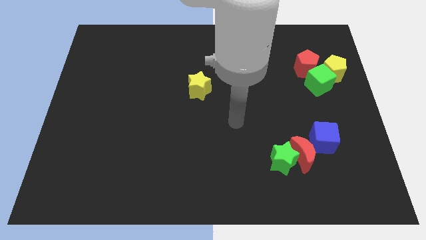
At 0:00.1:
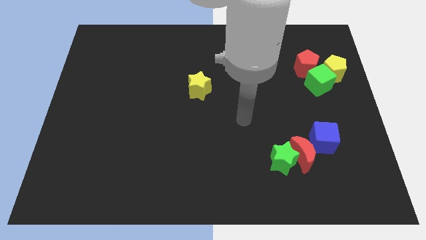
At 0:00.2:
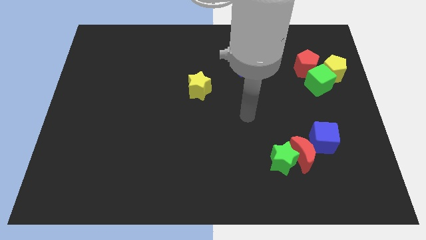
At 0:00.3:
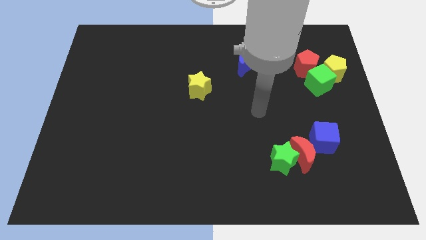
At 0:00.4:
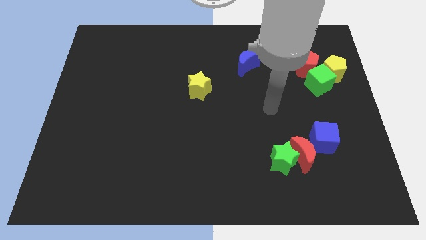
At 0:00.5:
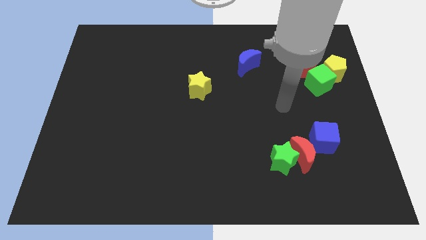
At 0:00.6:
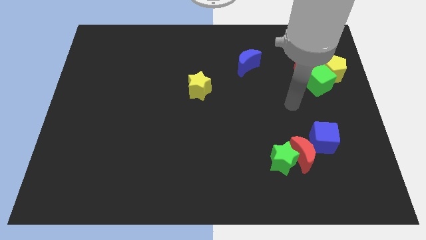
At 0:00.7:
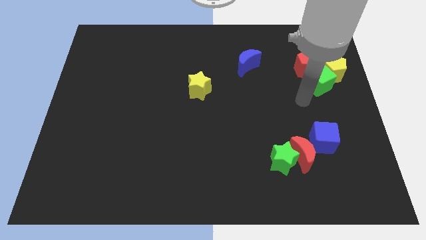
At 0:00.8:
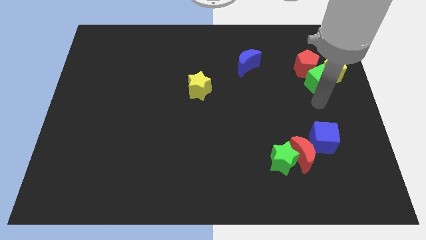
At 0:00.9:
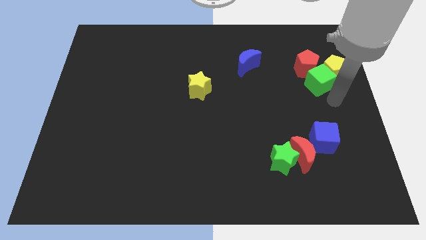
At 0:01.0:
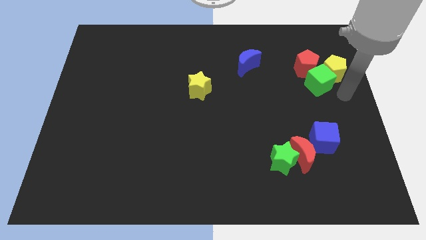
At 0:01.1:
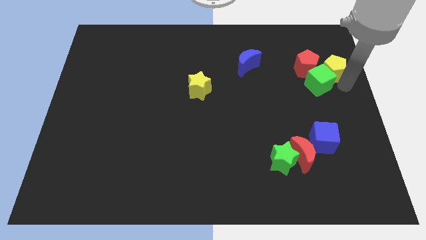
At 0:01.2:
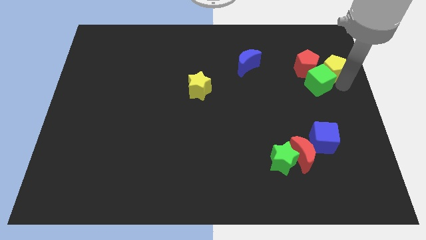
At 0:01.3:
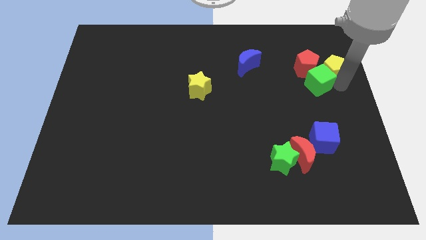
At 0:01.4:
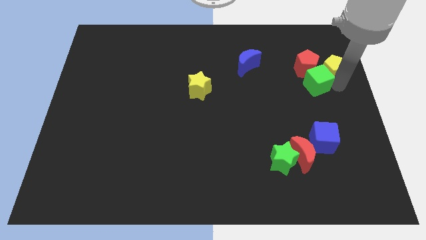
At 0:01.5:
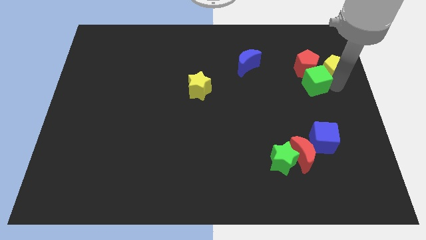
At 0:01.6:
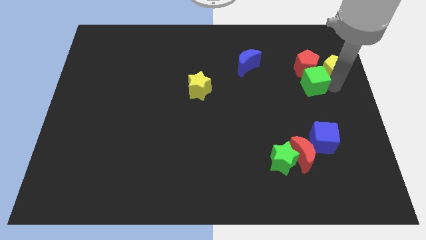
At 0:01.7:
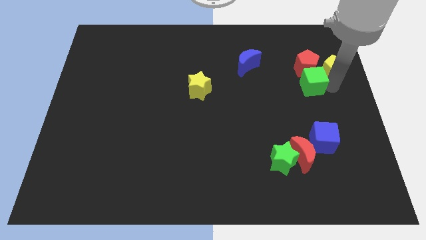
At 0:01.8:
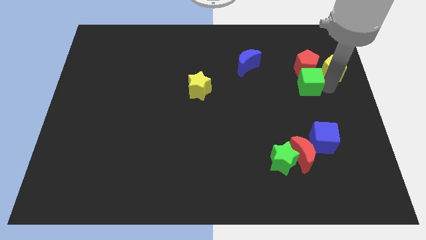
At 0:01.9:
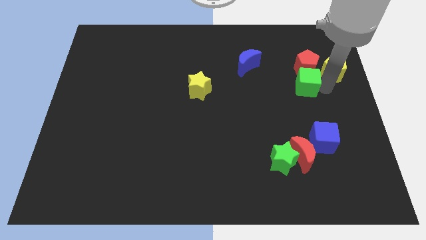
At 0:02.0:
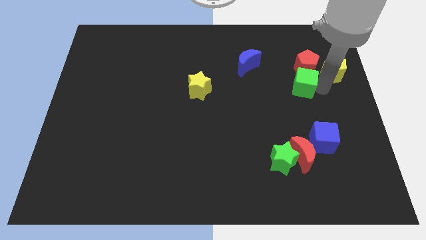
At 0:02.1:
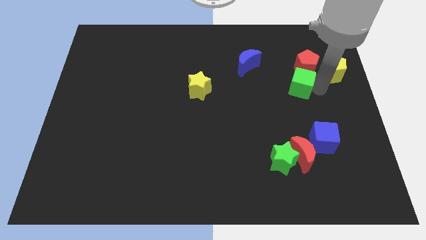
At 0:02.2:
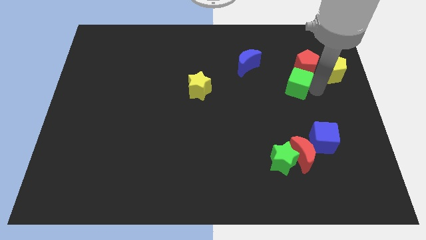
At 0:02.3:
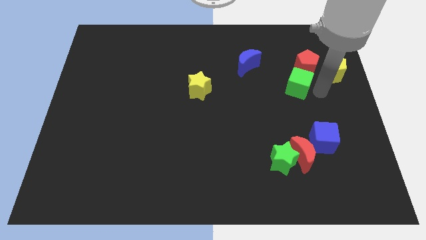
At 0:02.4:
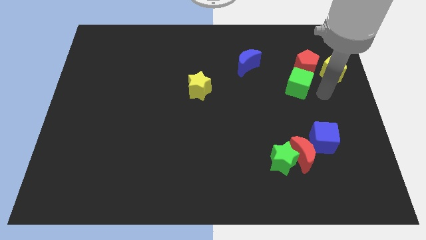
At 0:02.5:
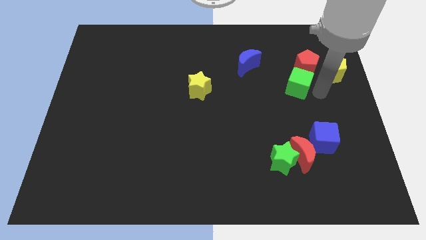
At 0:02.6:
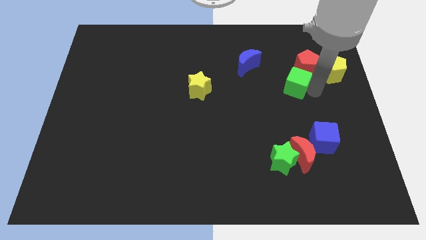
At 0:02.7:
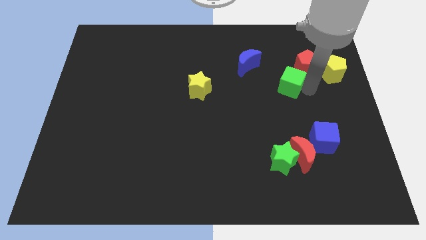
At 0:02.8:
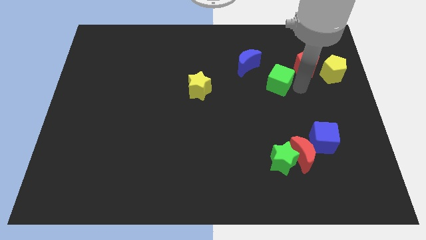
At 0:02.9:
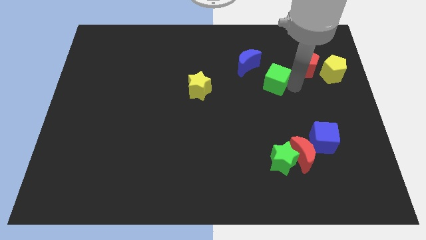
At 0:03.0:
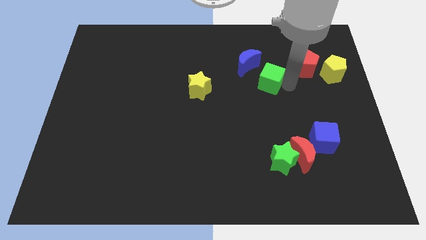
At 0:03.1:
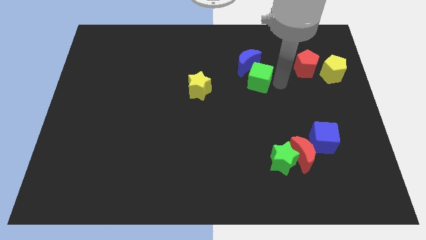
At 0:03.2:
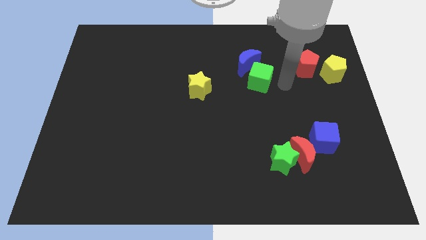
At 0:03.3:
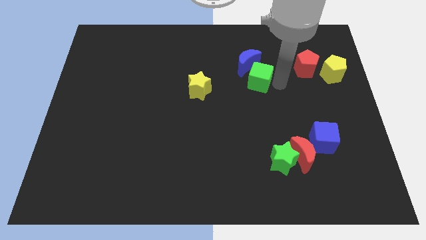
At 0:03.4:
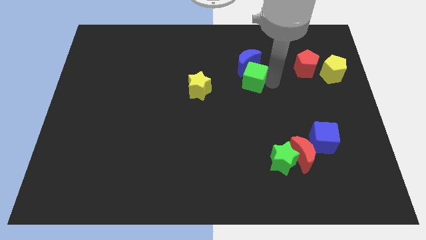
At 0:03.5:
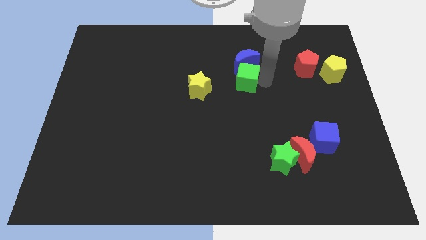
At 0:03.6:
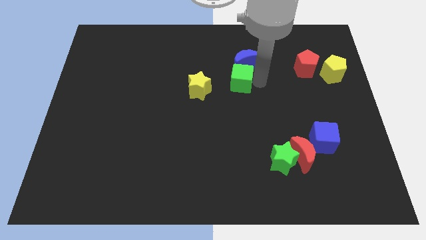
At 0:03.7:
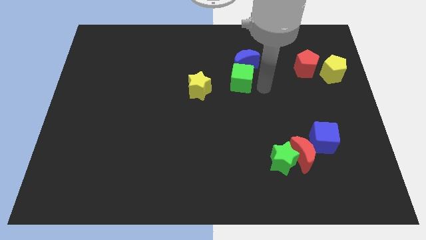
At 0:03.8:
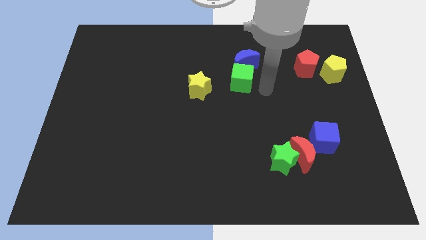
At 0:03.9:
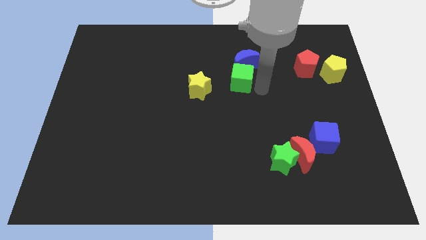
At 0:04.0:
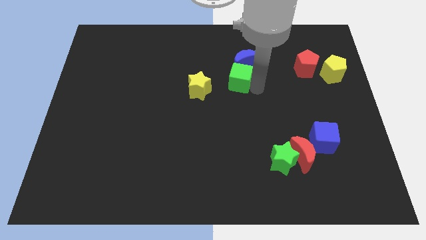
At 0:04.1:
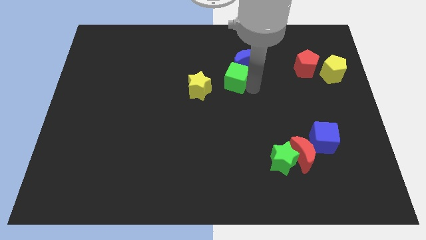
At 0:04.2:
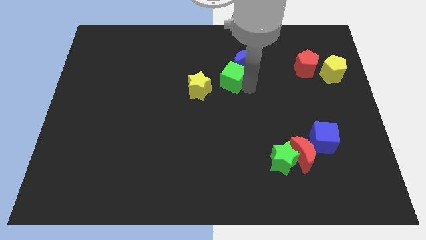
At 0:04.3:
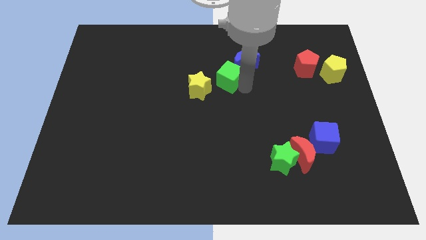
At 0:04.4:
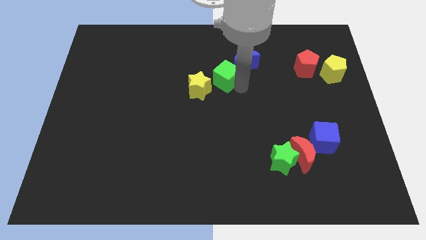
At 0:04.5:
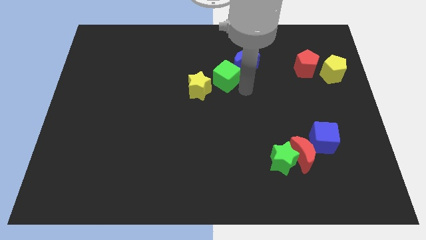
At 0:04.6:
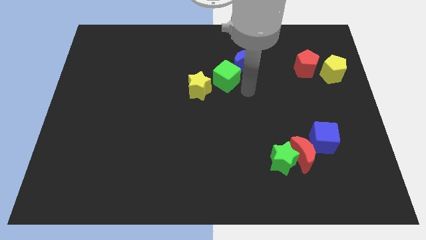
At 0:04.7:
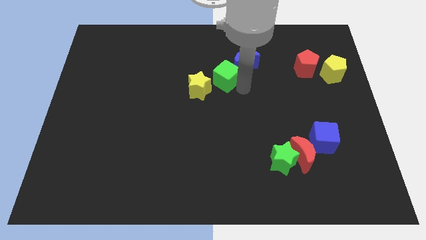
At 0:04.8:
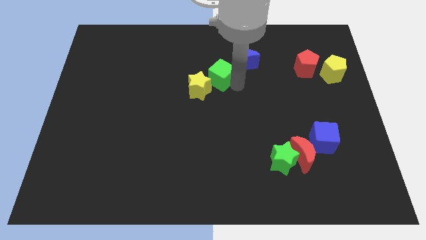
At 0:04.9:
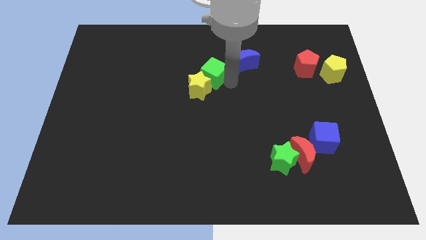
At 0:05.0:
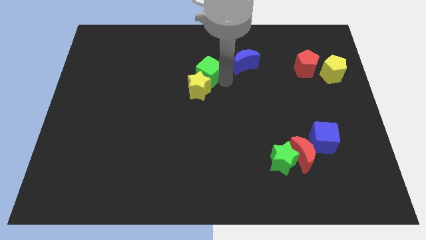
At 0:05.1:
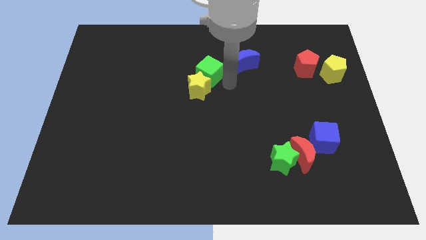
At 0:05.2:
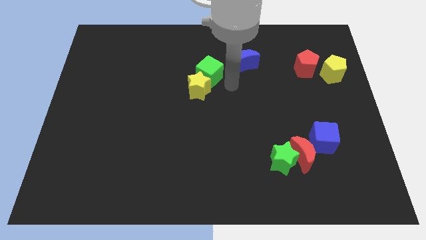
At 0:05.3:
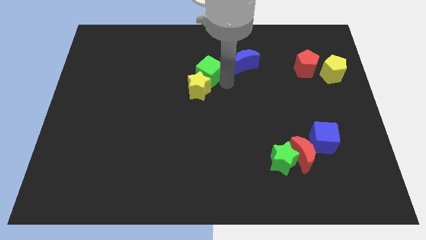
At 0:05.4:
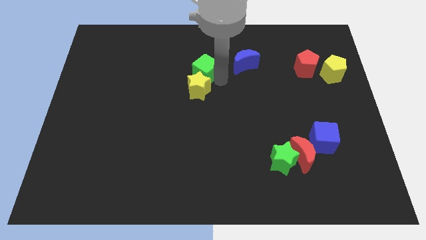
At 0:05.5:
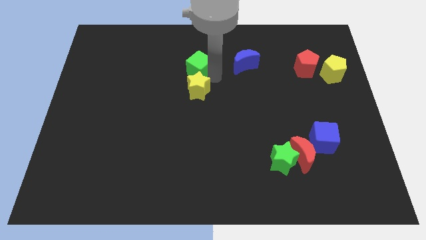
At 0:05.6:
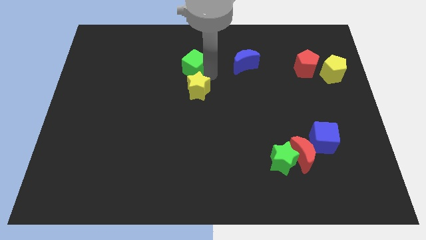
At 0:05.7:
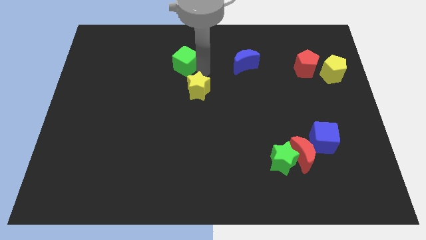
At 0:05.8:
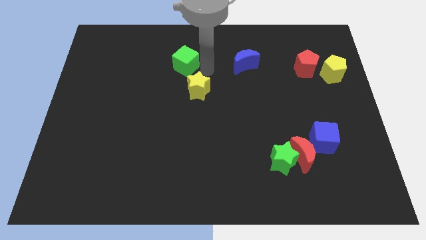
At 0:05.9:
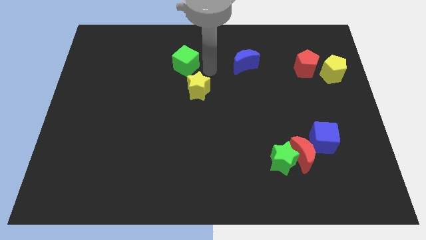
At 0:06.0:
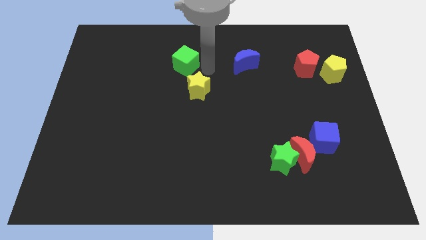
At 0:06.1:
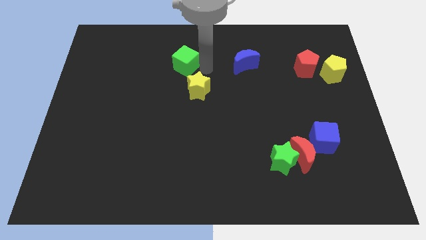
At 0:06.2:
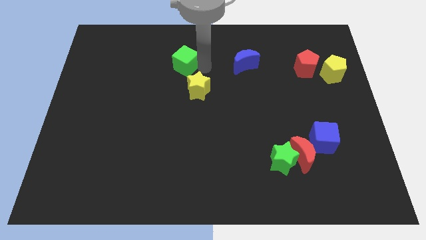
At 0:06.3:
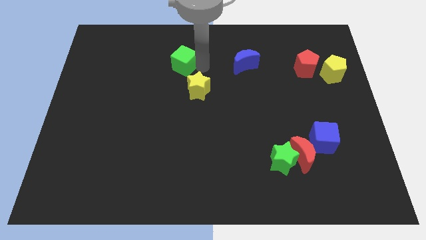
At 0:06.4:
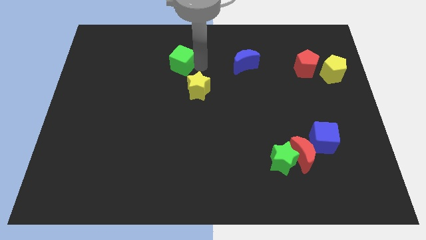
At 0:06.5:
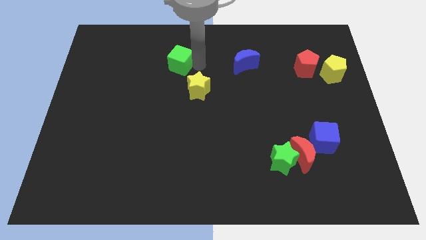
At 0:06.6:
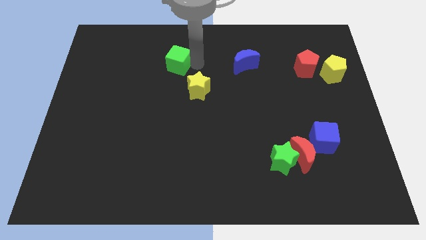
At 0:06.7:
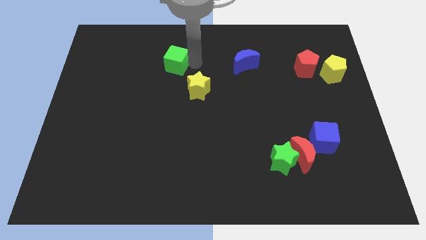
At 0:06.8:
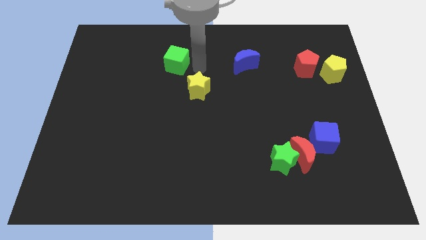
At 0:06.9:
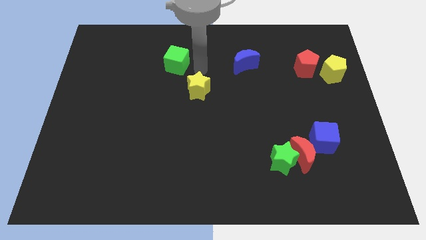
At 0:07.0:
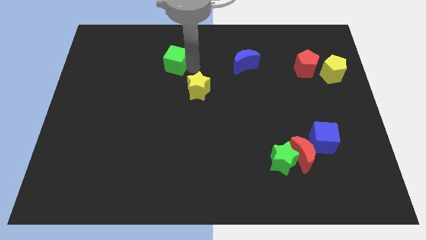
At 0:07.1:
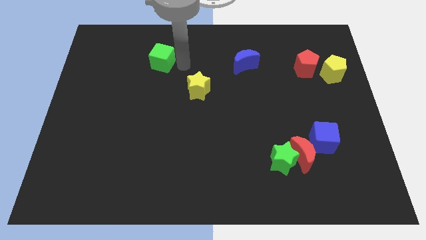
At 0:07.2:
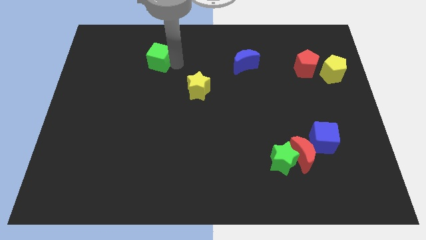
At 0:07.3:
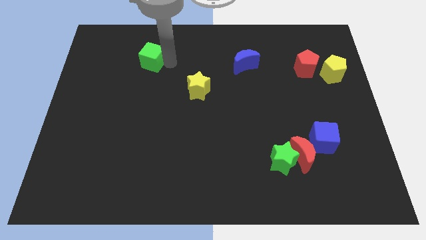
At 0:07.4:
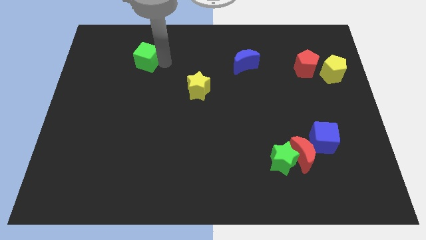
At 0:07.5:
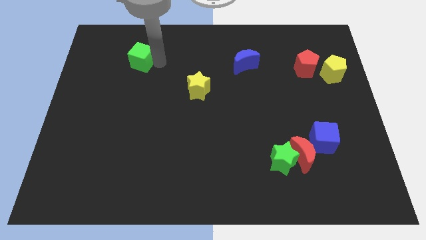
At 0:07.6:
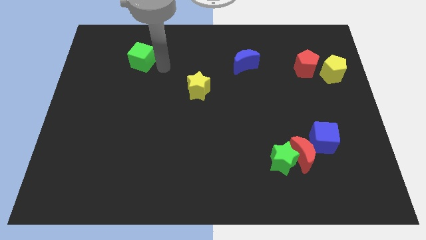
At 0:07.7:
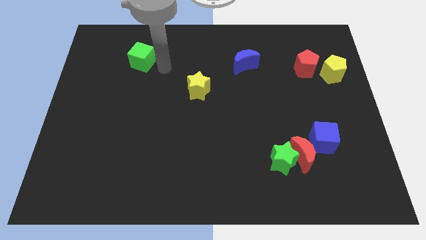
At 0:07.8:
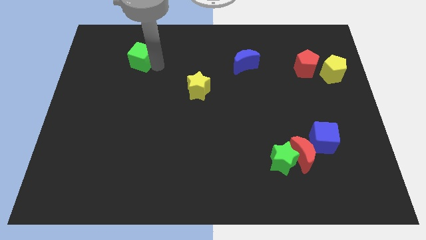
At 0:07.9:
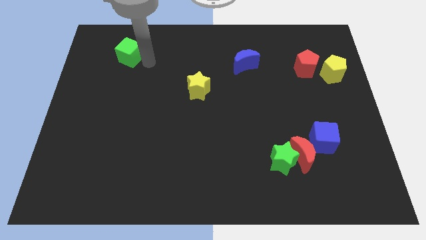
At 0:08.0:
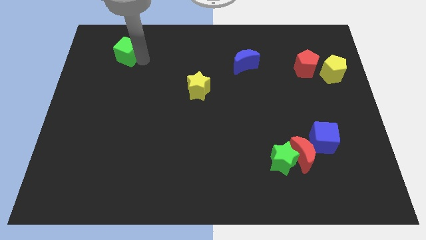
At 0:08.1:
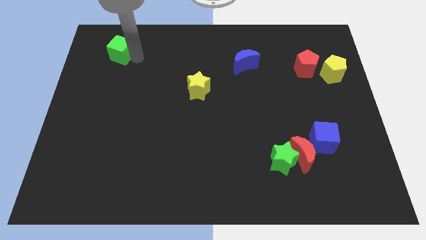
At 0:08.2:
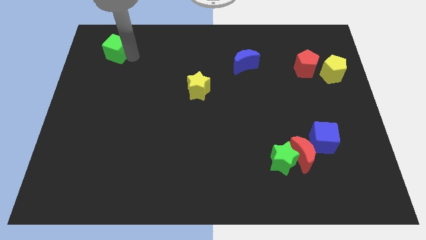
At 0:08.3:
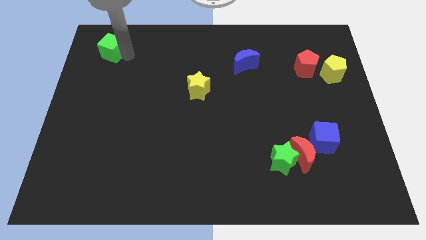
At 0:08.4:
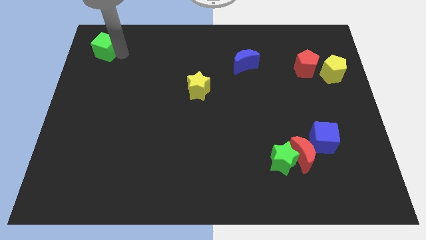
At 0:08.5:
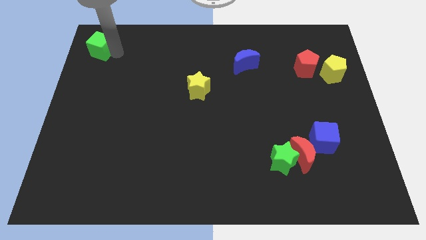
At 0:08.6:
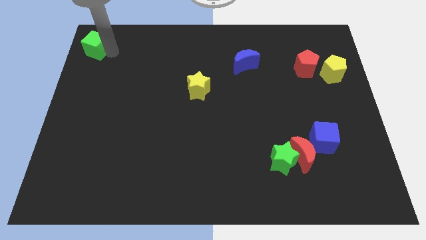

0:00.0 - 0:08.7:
put the green cube to the top left corner
